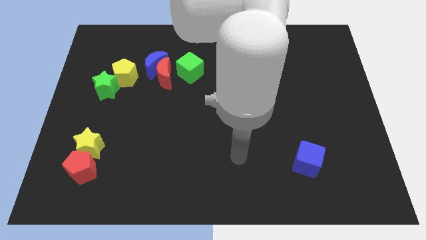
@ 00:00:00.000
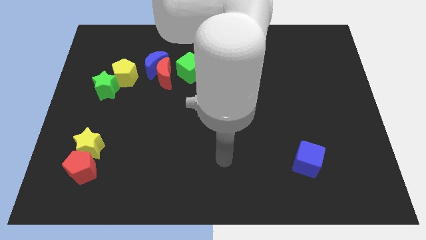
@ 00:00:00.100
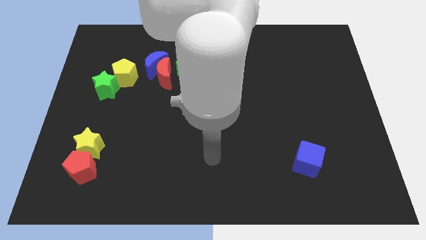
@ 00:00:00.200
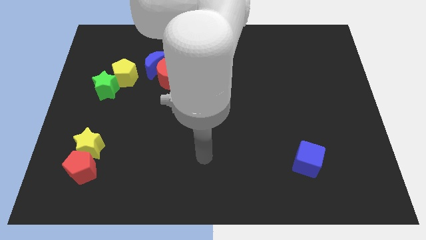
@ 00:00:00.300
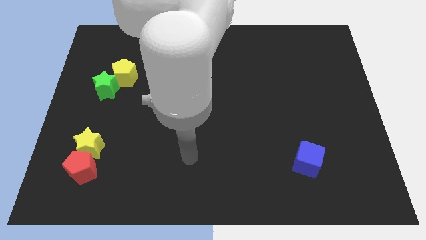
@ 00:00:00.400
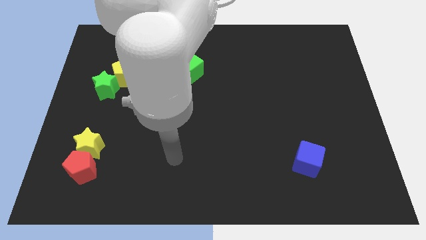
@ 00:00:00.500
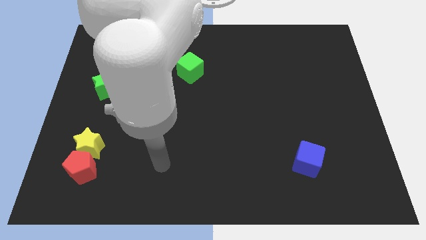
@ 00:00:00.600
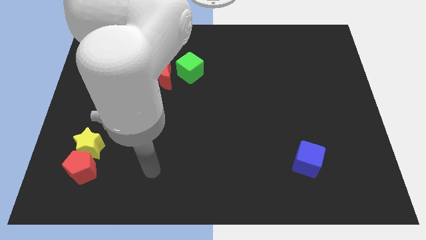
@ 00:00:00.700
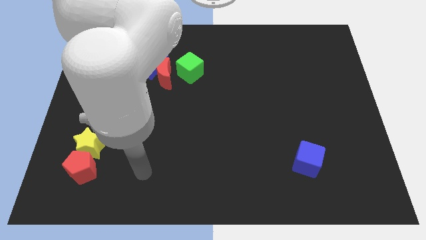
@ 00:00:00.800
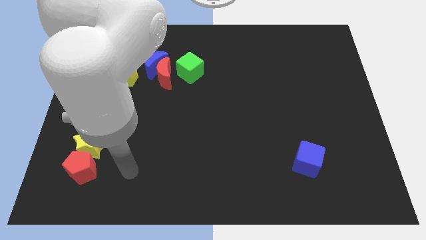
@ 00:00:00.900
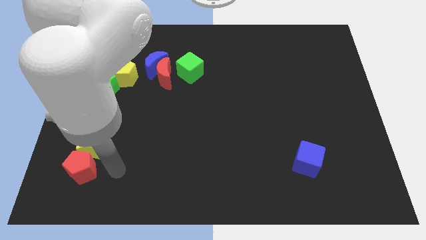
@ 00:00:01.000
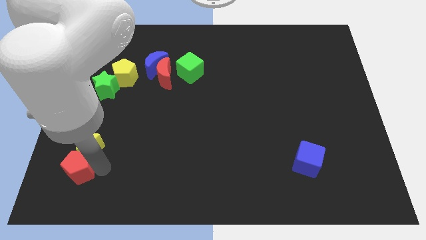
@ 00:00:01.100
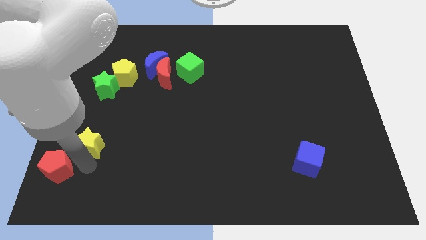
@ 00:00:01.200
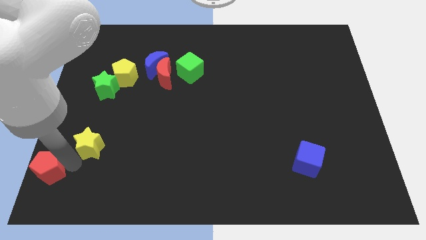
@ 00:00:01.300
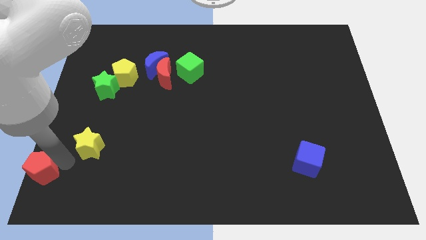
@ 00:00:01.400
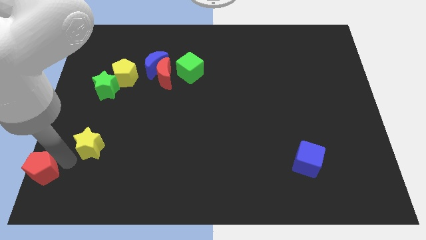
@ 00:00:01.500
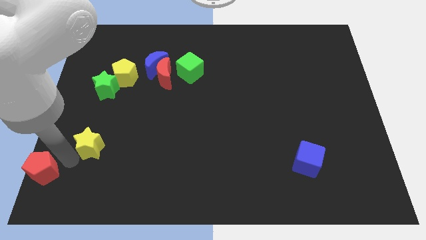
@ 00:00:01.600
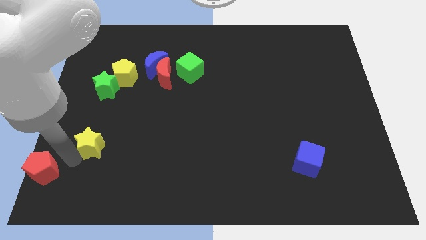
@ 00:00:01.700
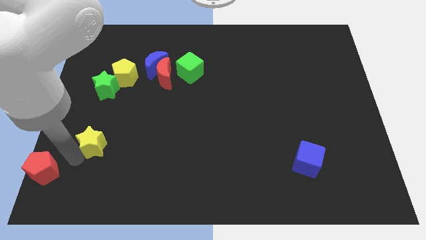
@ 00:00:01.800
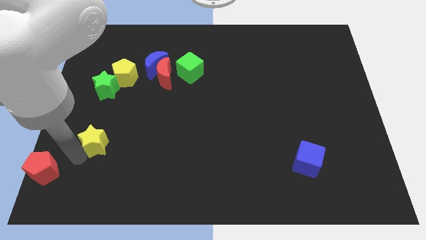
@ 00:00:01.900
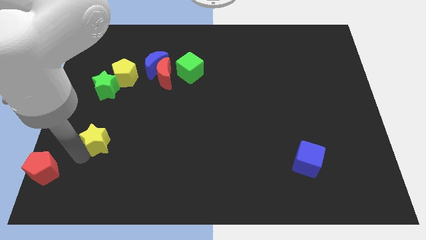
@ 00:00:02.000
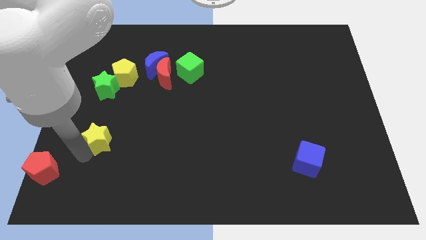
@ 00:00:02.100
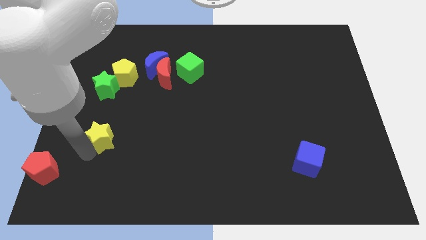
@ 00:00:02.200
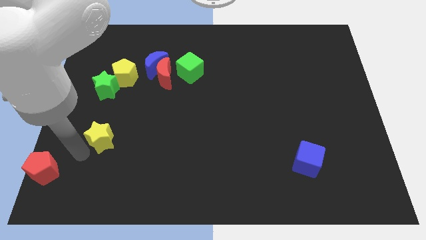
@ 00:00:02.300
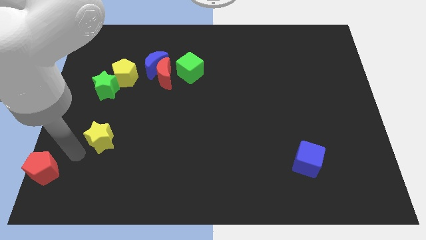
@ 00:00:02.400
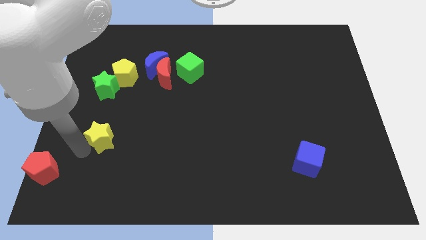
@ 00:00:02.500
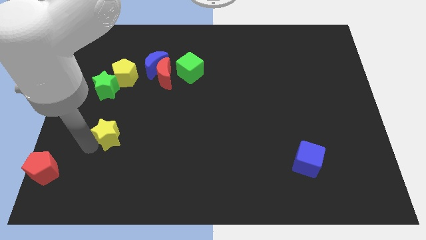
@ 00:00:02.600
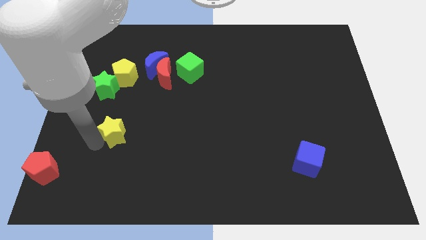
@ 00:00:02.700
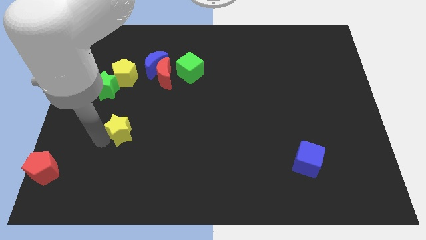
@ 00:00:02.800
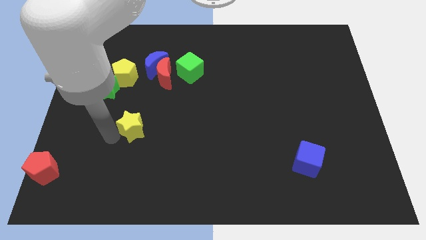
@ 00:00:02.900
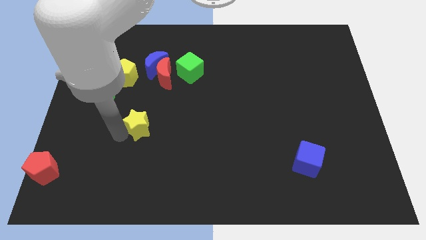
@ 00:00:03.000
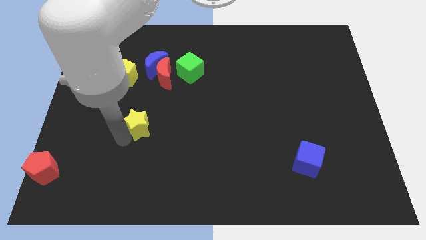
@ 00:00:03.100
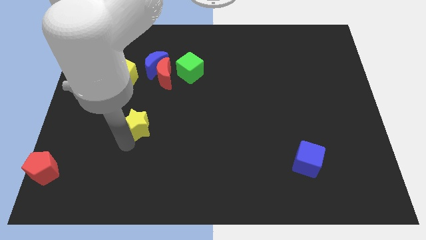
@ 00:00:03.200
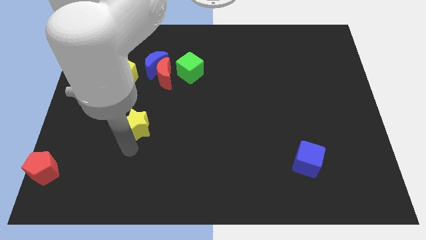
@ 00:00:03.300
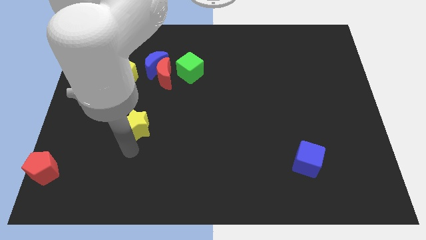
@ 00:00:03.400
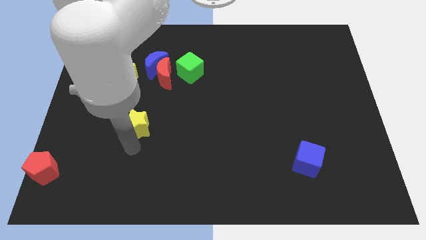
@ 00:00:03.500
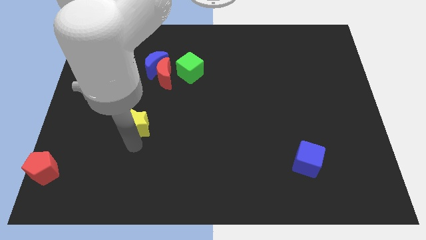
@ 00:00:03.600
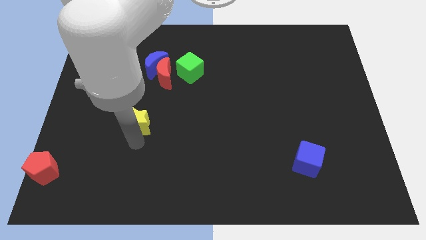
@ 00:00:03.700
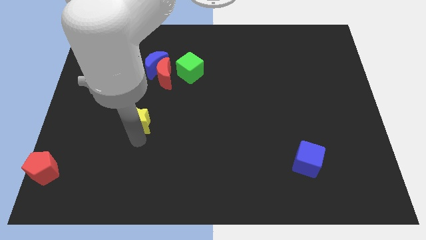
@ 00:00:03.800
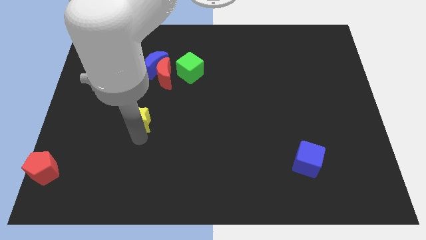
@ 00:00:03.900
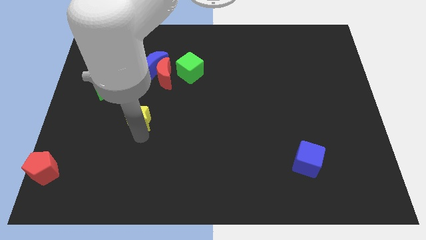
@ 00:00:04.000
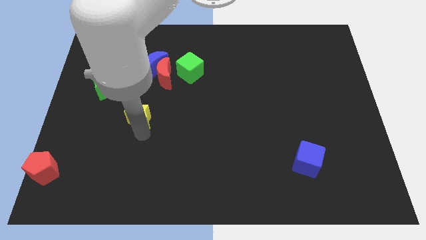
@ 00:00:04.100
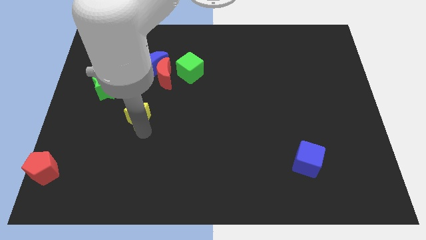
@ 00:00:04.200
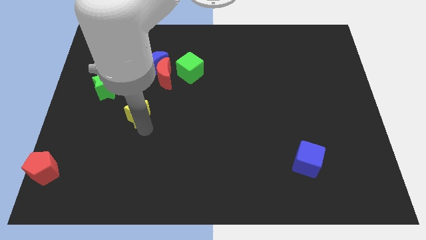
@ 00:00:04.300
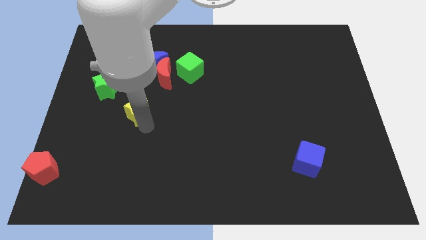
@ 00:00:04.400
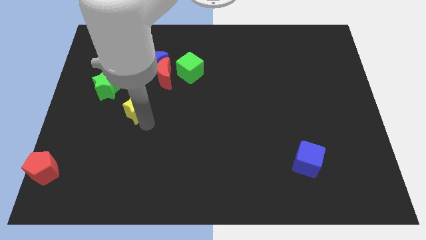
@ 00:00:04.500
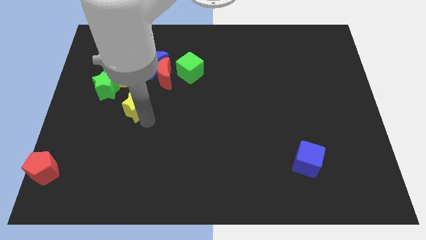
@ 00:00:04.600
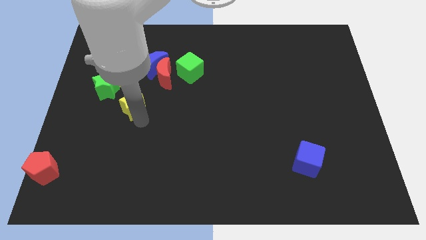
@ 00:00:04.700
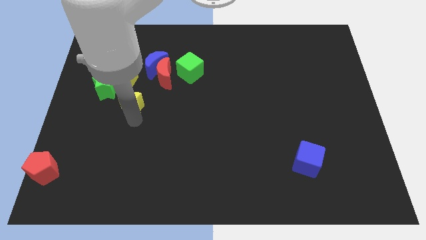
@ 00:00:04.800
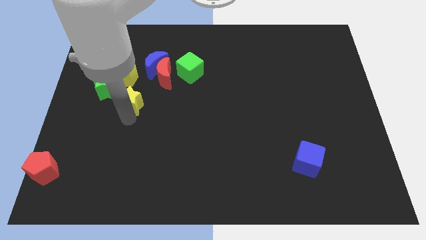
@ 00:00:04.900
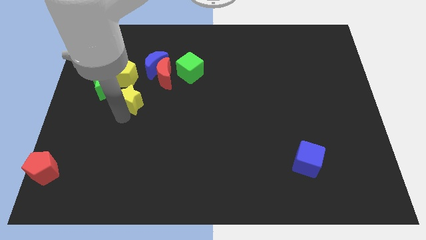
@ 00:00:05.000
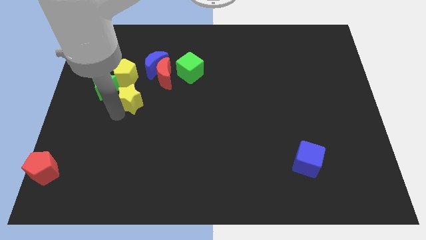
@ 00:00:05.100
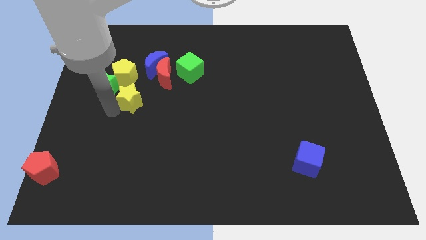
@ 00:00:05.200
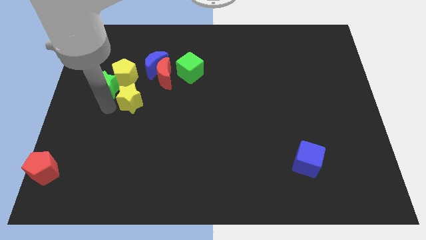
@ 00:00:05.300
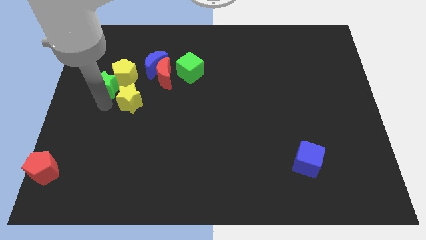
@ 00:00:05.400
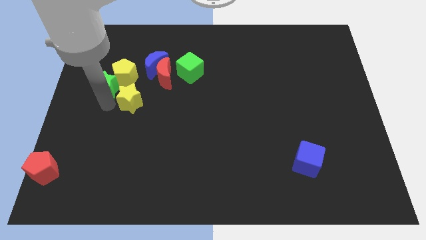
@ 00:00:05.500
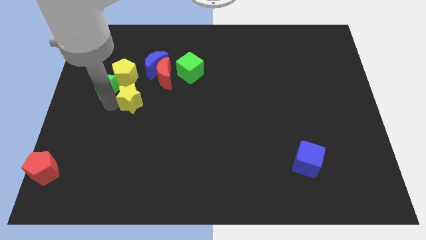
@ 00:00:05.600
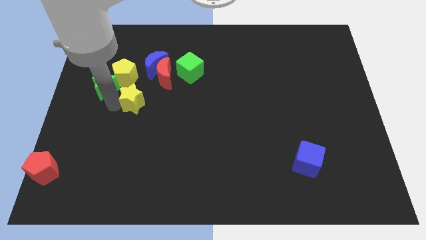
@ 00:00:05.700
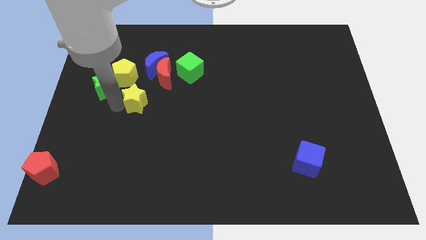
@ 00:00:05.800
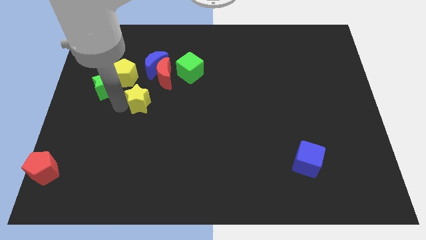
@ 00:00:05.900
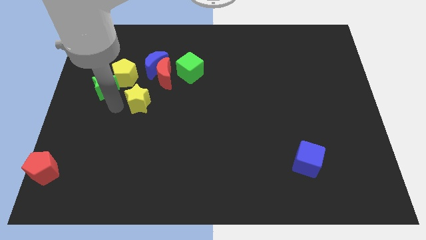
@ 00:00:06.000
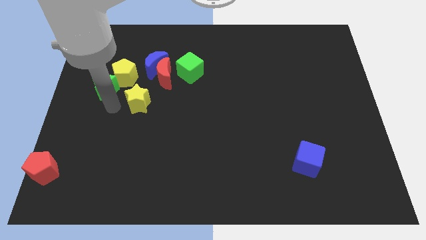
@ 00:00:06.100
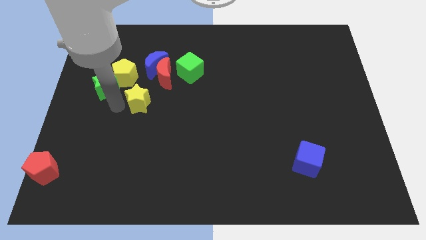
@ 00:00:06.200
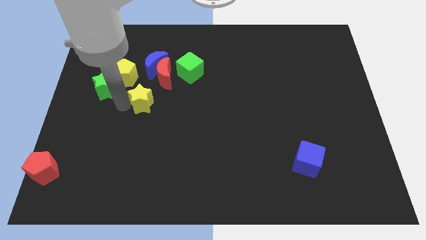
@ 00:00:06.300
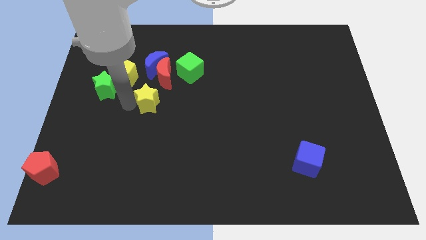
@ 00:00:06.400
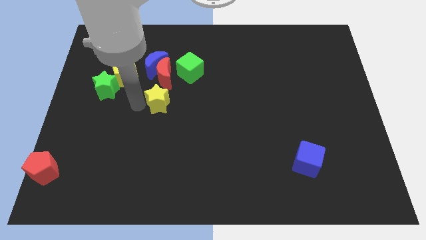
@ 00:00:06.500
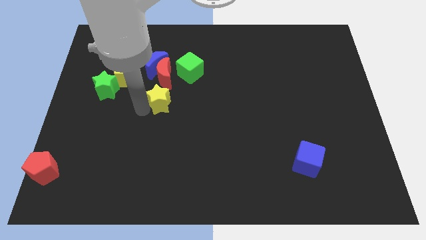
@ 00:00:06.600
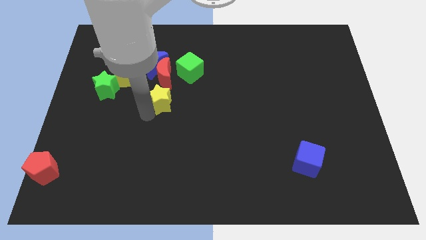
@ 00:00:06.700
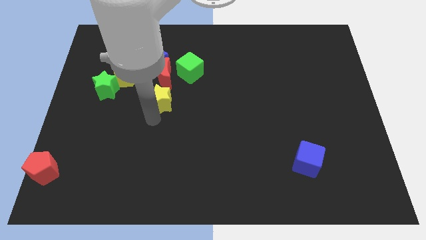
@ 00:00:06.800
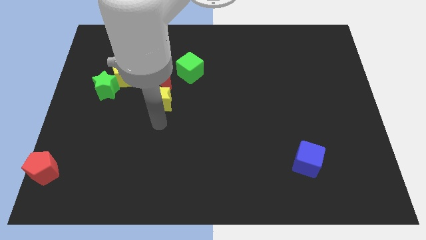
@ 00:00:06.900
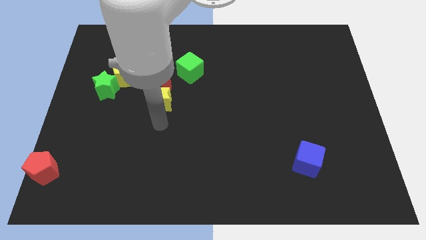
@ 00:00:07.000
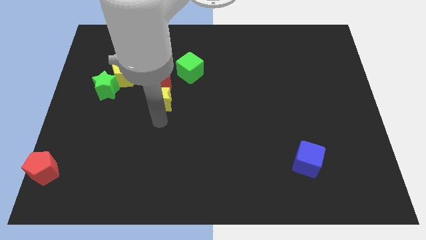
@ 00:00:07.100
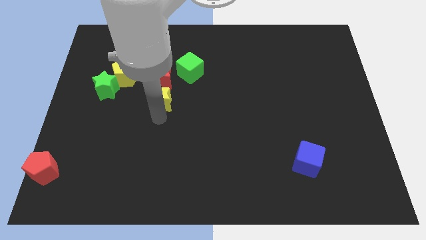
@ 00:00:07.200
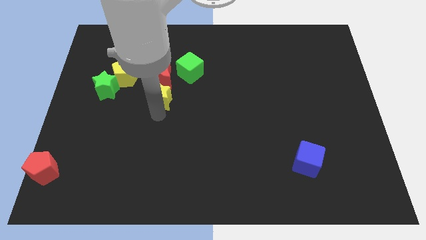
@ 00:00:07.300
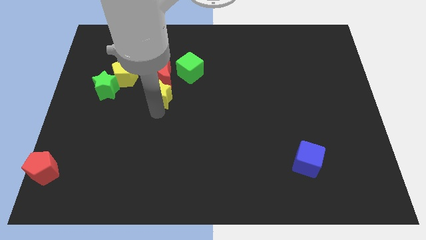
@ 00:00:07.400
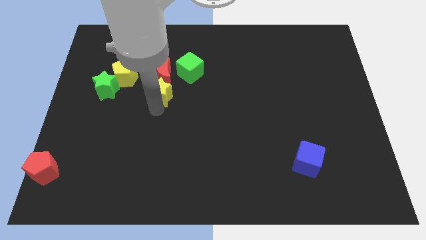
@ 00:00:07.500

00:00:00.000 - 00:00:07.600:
move the yellow star towards the red moon
